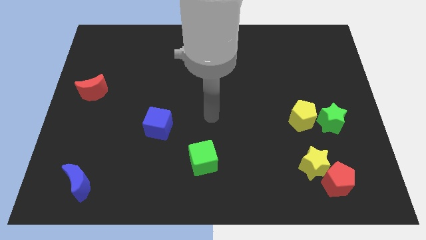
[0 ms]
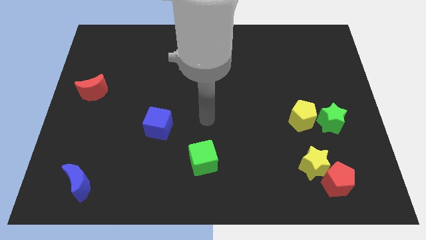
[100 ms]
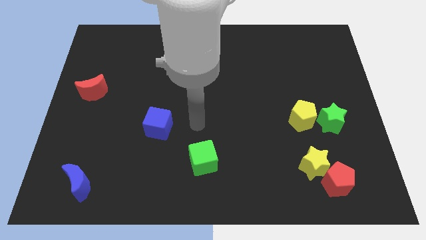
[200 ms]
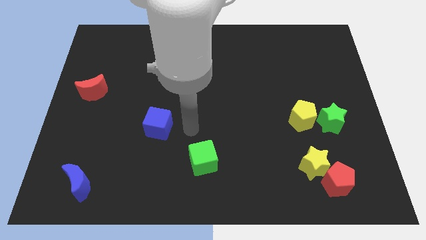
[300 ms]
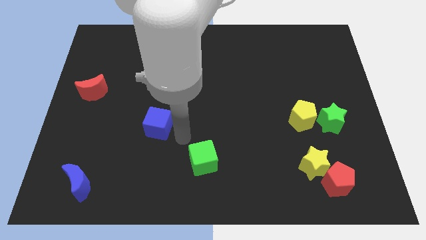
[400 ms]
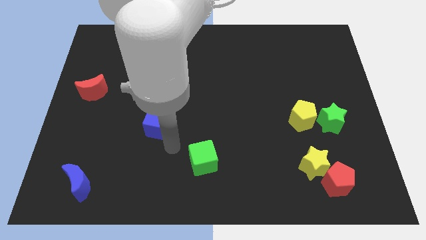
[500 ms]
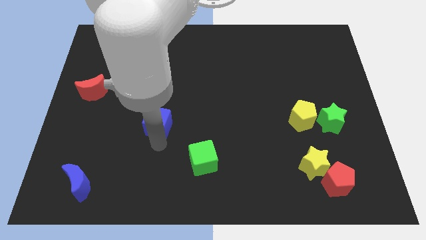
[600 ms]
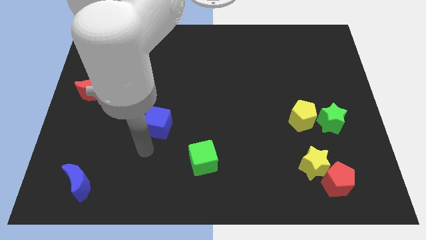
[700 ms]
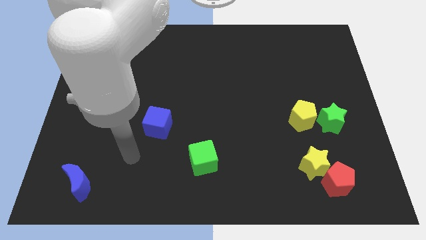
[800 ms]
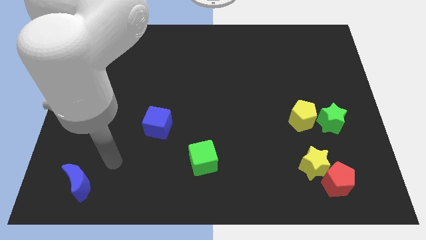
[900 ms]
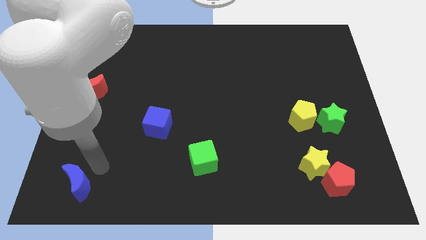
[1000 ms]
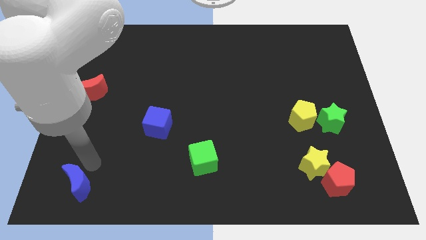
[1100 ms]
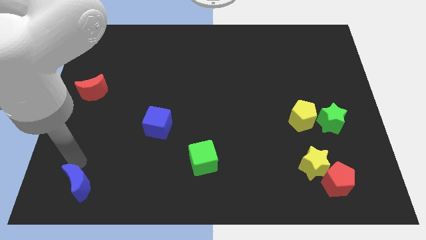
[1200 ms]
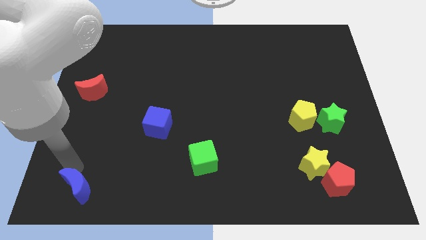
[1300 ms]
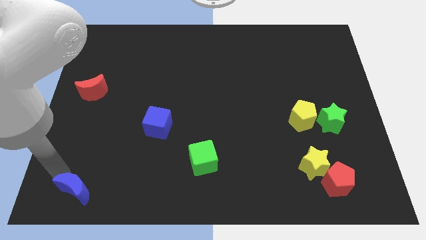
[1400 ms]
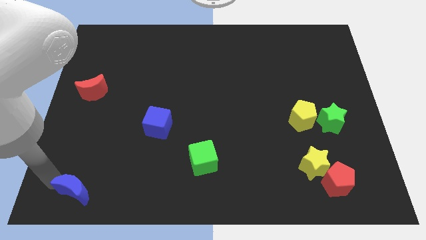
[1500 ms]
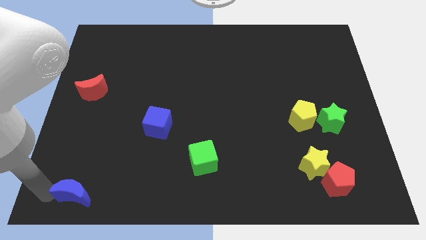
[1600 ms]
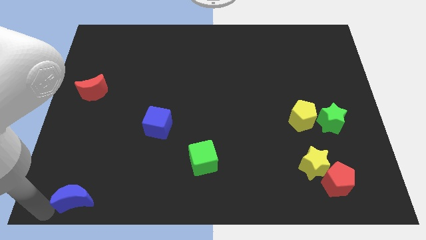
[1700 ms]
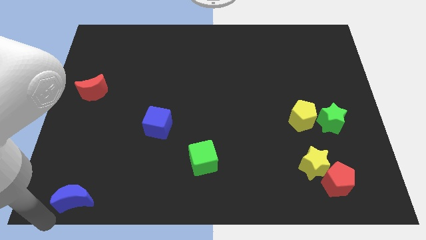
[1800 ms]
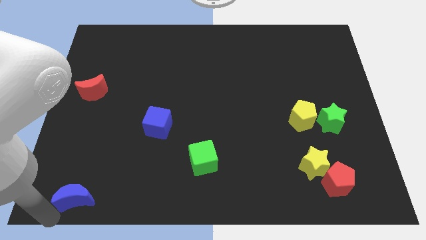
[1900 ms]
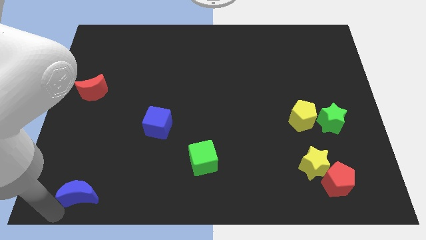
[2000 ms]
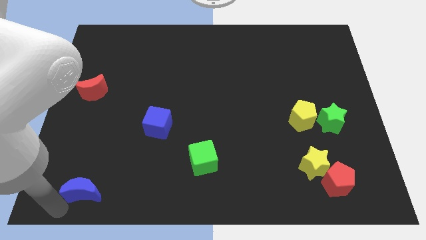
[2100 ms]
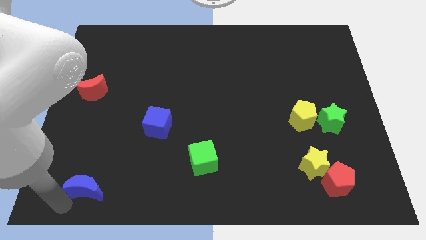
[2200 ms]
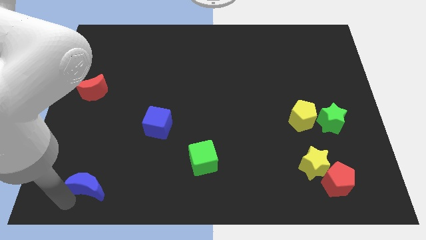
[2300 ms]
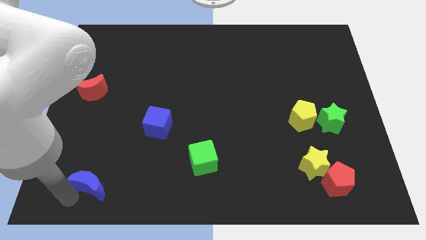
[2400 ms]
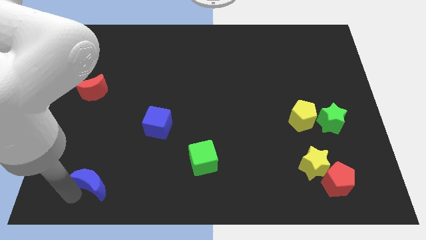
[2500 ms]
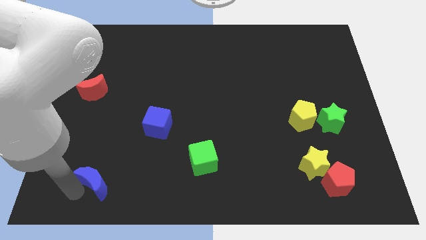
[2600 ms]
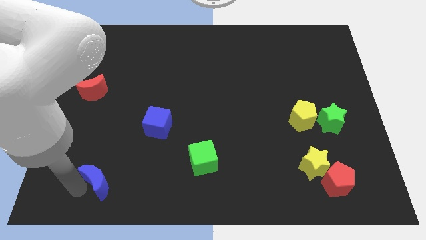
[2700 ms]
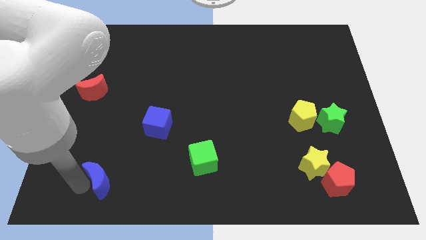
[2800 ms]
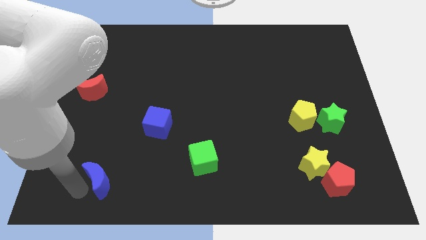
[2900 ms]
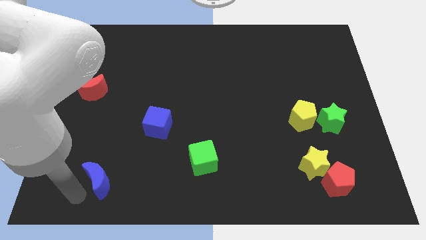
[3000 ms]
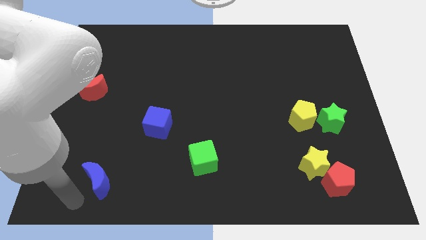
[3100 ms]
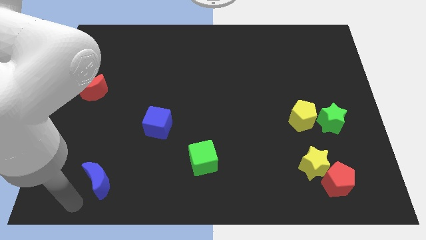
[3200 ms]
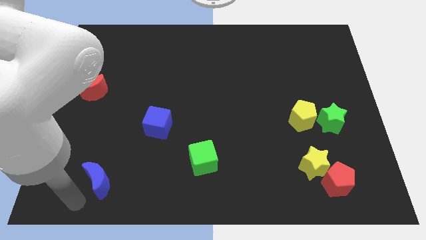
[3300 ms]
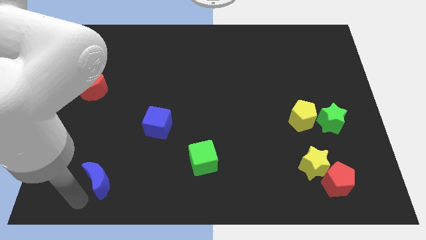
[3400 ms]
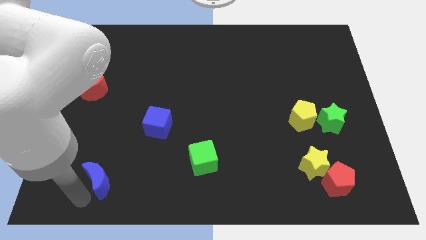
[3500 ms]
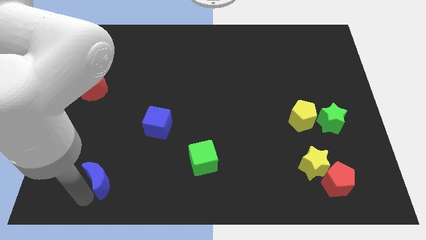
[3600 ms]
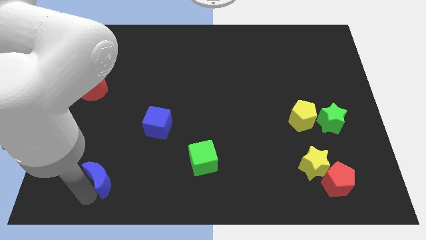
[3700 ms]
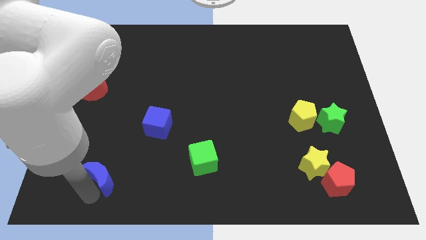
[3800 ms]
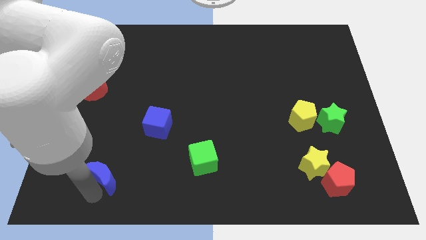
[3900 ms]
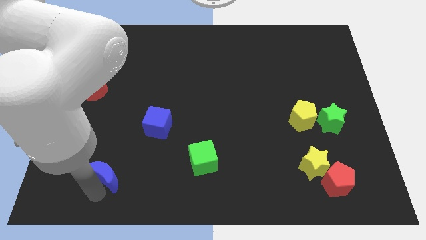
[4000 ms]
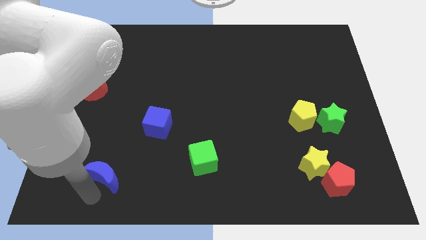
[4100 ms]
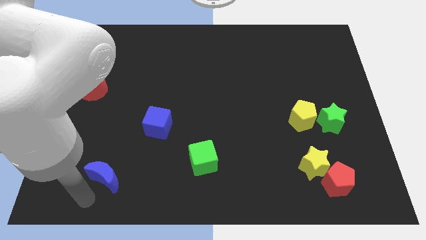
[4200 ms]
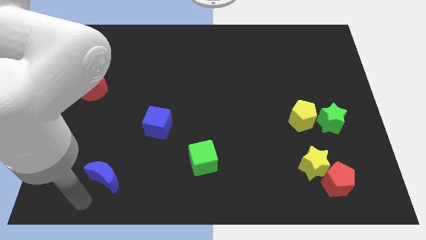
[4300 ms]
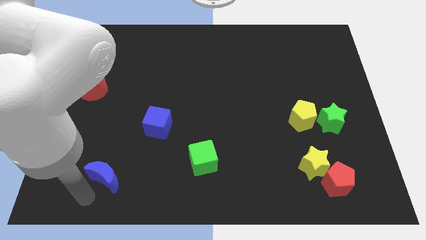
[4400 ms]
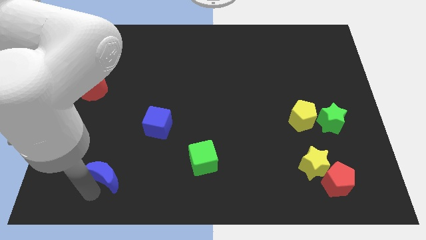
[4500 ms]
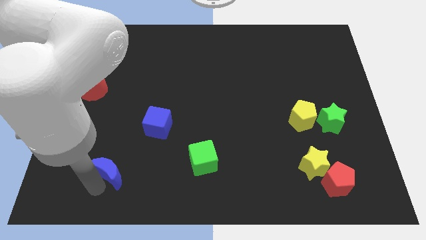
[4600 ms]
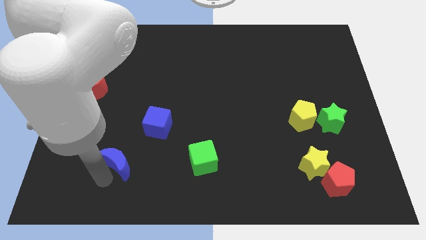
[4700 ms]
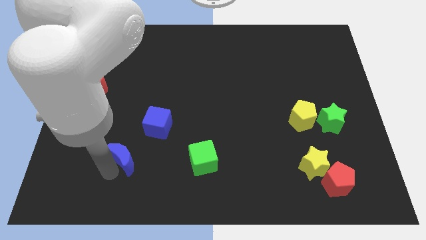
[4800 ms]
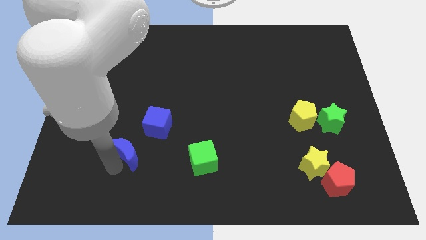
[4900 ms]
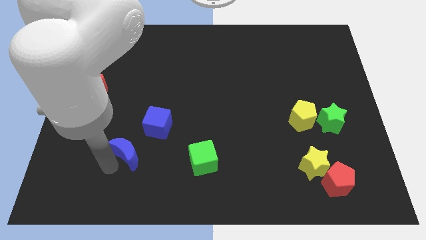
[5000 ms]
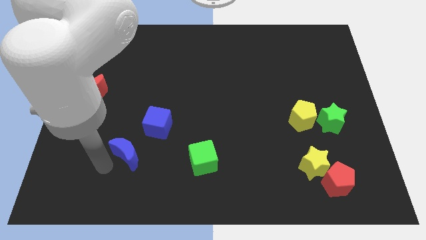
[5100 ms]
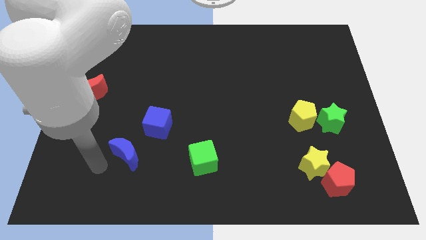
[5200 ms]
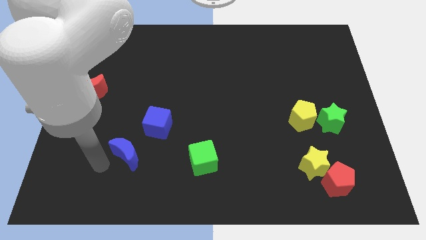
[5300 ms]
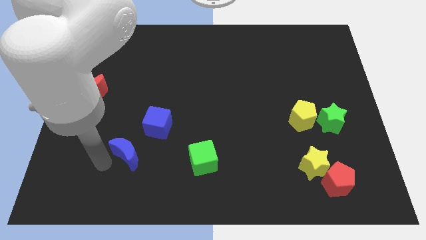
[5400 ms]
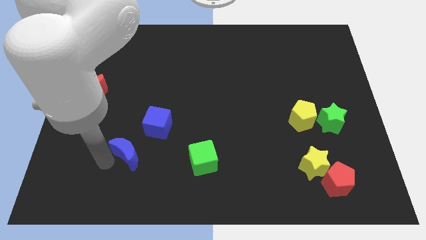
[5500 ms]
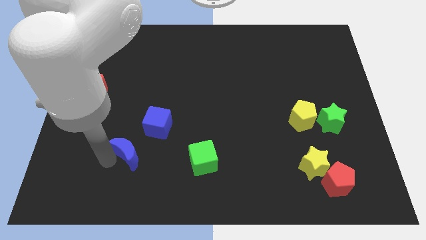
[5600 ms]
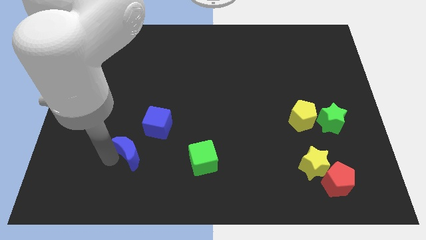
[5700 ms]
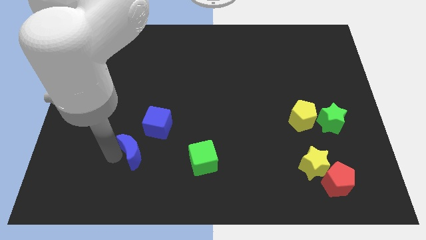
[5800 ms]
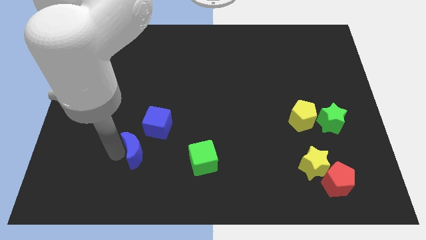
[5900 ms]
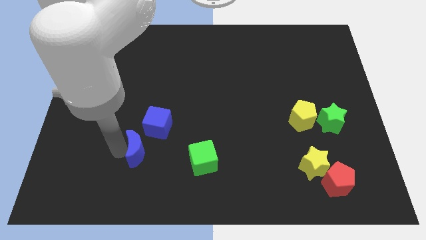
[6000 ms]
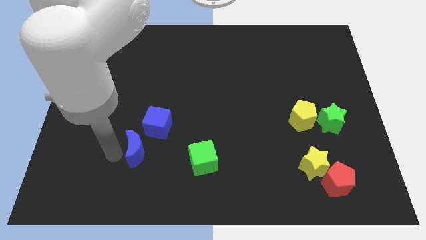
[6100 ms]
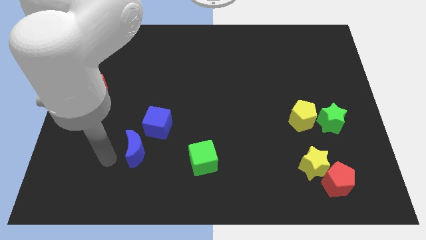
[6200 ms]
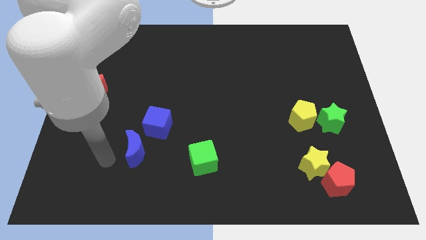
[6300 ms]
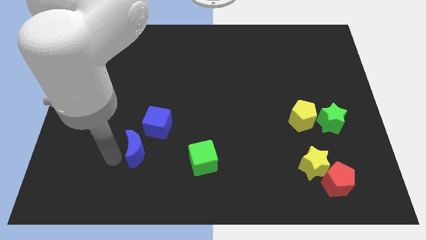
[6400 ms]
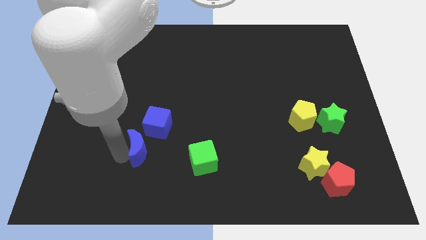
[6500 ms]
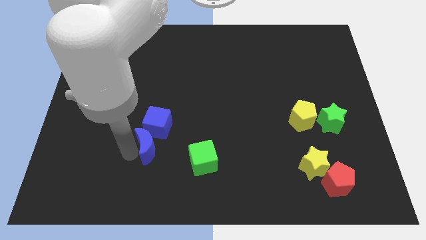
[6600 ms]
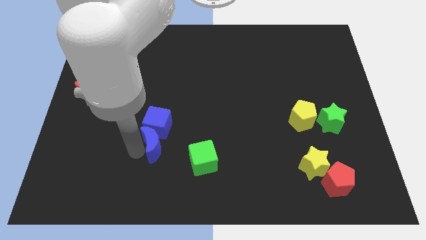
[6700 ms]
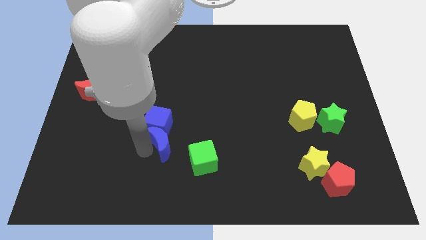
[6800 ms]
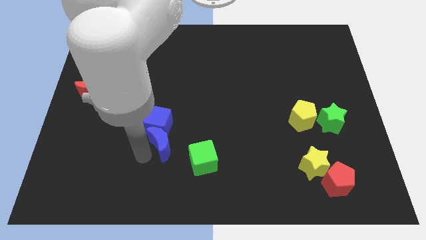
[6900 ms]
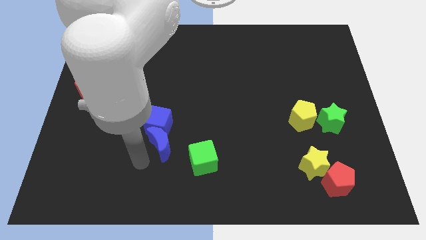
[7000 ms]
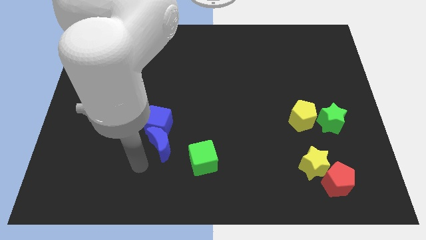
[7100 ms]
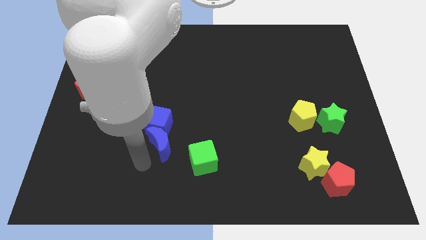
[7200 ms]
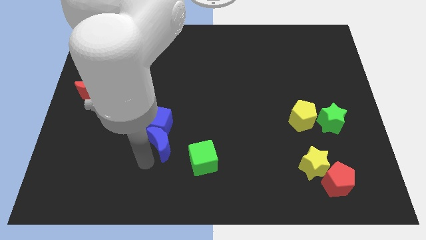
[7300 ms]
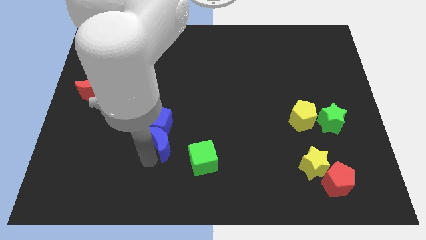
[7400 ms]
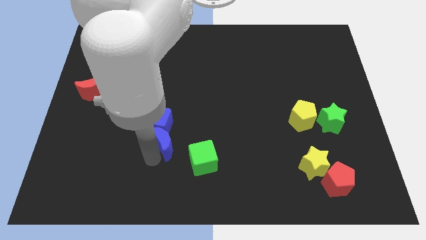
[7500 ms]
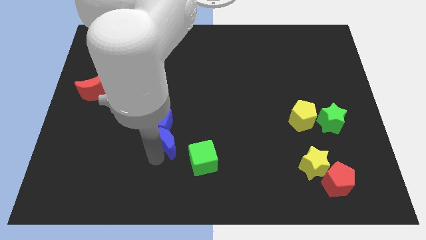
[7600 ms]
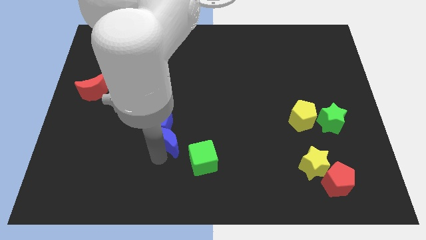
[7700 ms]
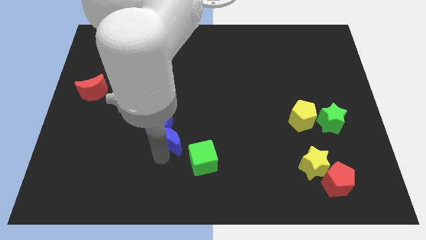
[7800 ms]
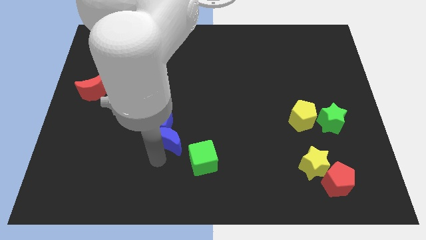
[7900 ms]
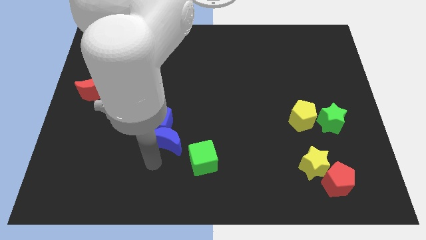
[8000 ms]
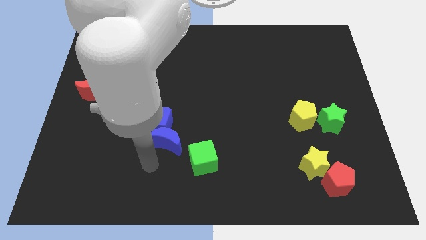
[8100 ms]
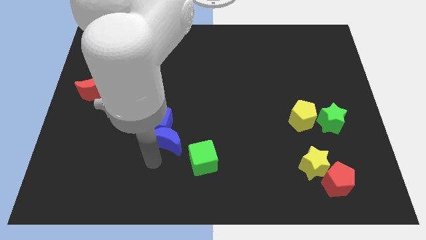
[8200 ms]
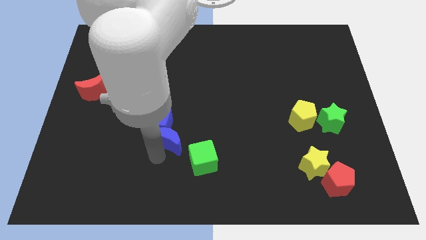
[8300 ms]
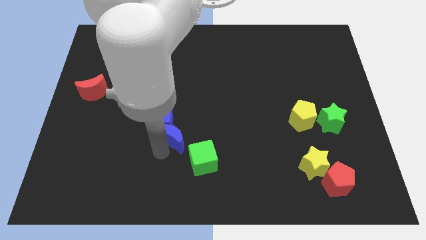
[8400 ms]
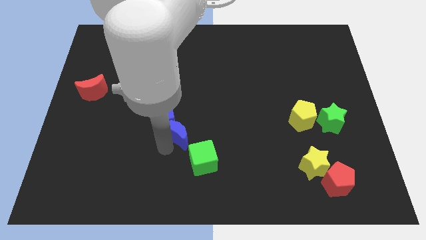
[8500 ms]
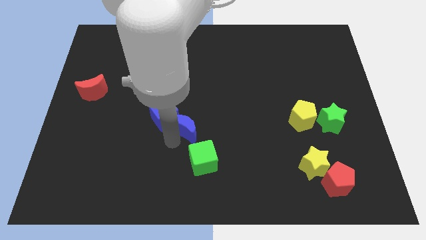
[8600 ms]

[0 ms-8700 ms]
push the blue moon to the center of the board
